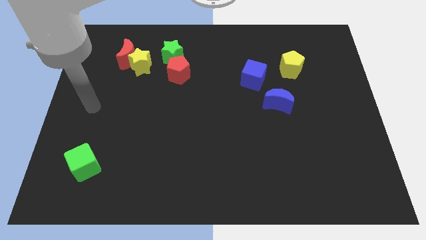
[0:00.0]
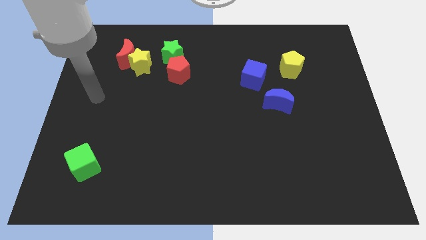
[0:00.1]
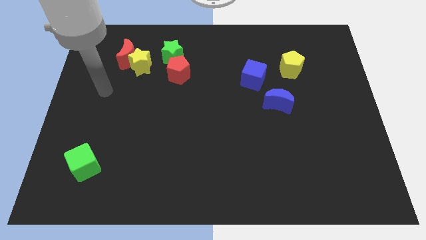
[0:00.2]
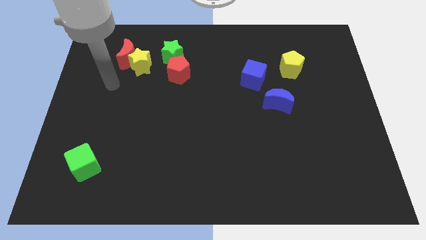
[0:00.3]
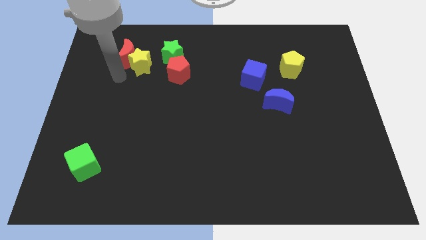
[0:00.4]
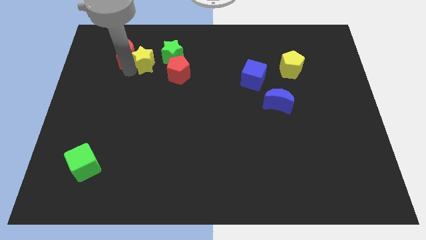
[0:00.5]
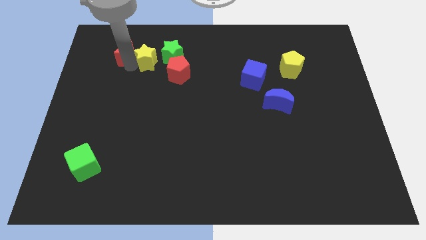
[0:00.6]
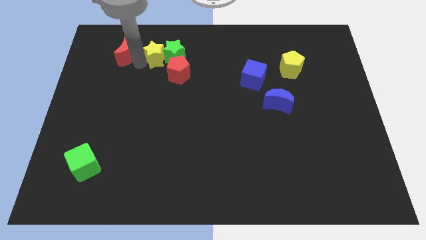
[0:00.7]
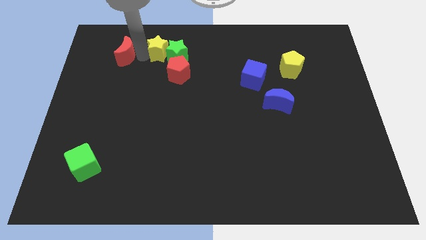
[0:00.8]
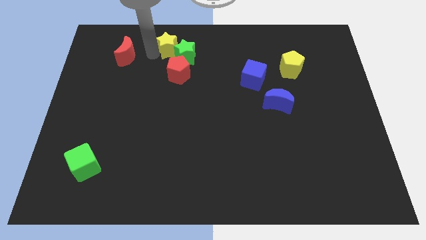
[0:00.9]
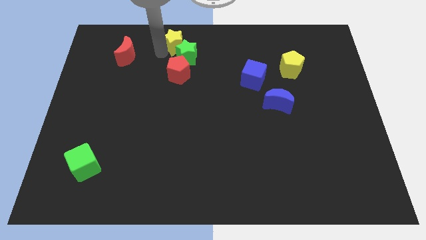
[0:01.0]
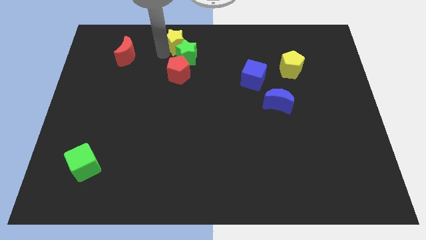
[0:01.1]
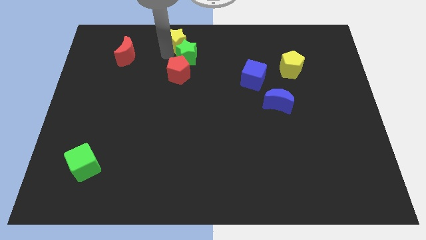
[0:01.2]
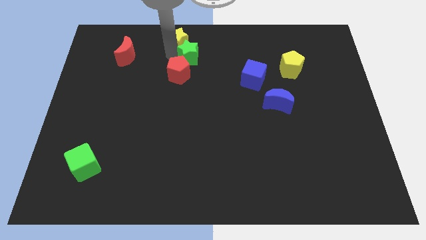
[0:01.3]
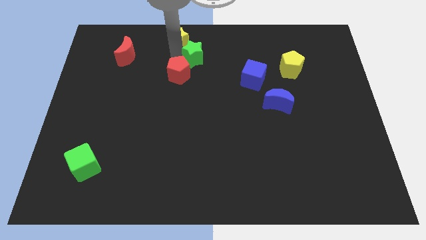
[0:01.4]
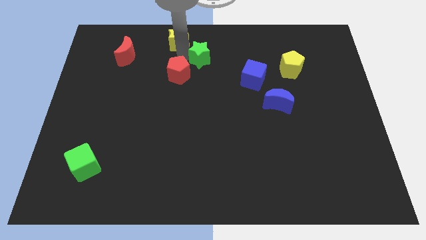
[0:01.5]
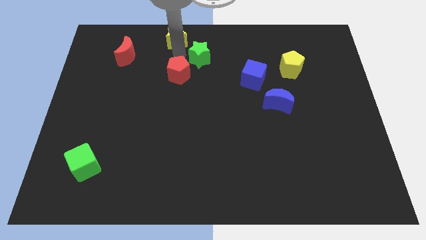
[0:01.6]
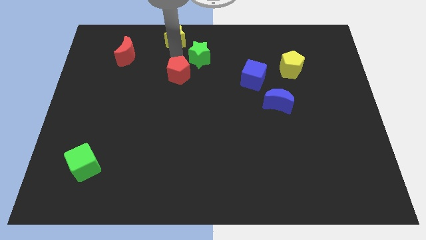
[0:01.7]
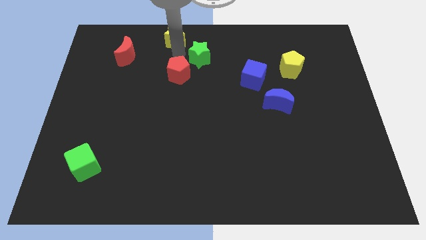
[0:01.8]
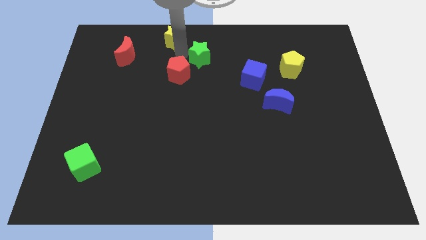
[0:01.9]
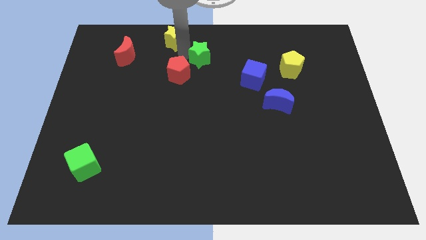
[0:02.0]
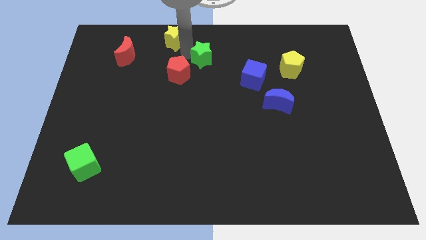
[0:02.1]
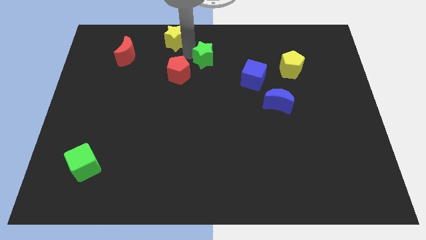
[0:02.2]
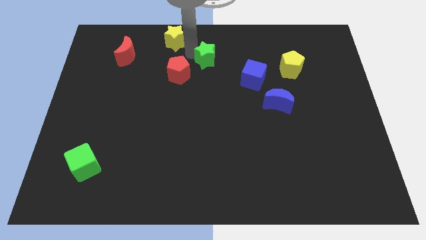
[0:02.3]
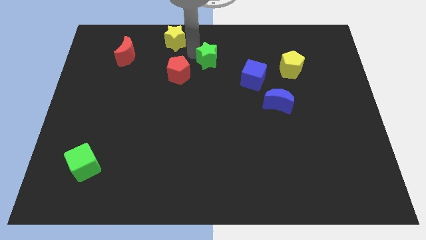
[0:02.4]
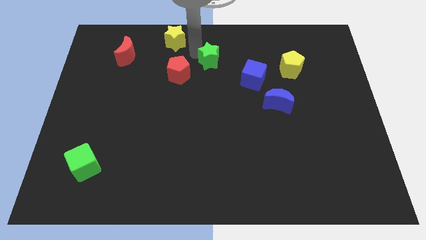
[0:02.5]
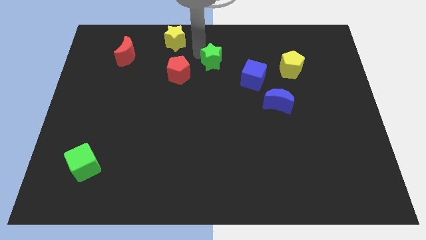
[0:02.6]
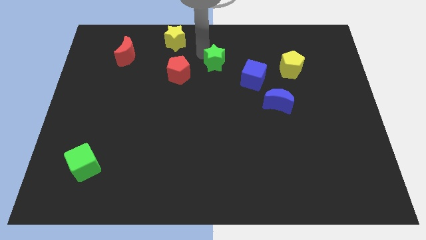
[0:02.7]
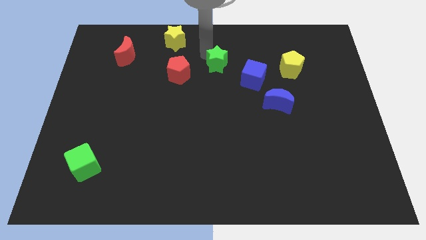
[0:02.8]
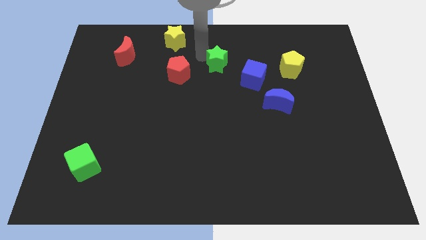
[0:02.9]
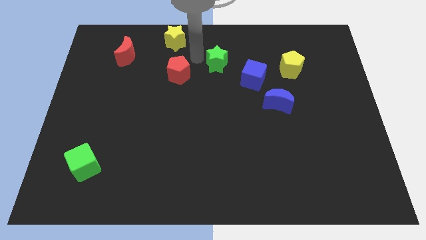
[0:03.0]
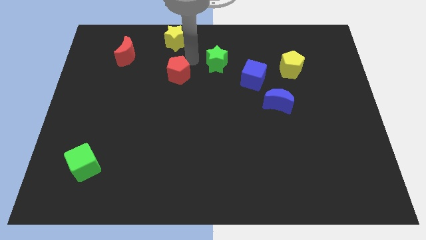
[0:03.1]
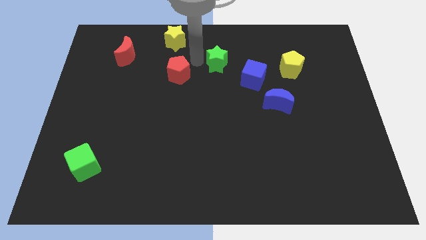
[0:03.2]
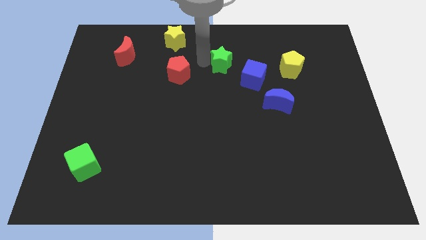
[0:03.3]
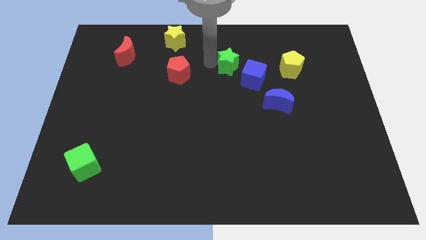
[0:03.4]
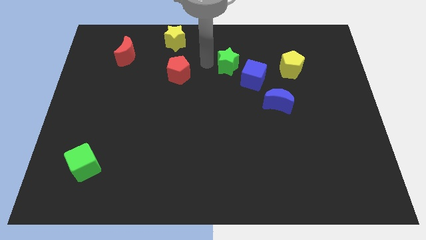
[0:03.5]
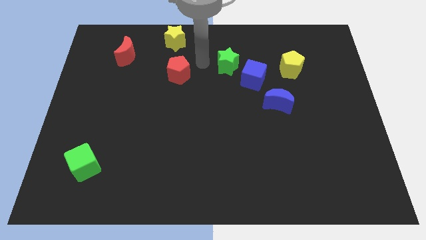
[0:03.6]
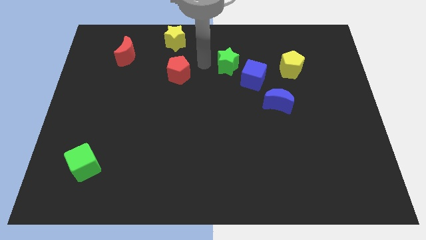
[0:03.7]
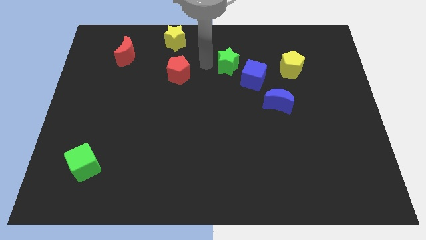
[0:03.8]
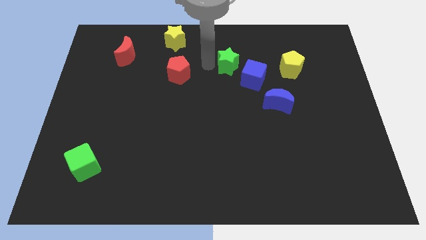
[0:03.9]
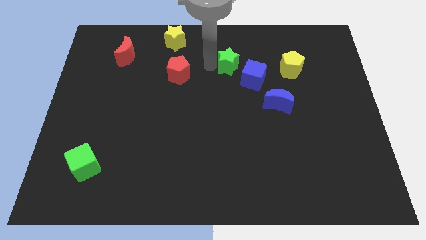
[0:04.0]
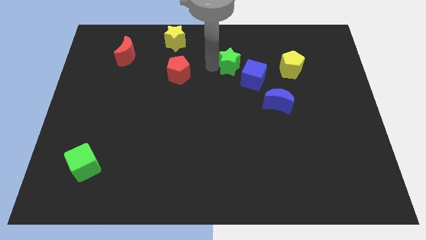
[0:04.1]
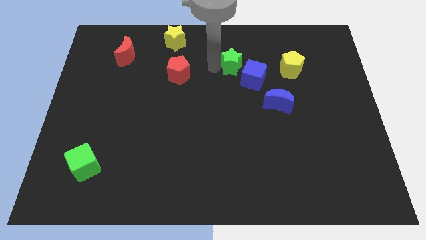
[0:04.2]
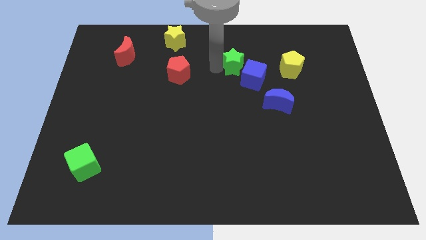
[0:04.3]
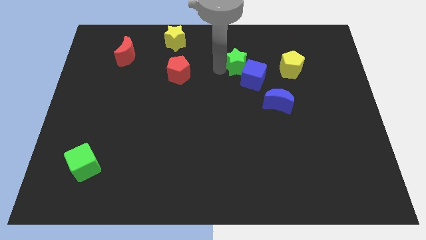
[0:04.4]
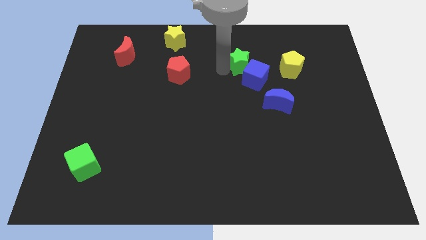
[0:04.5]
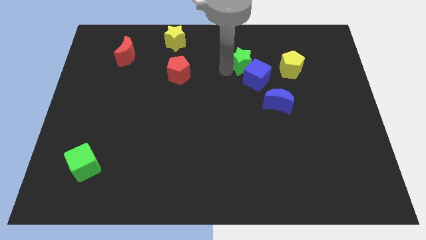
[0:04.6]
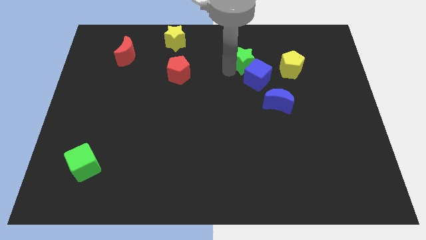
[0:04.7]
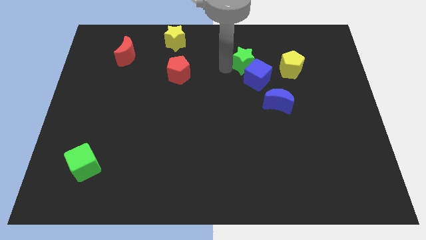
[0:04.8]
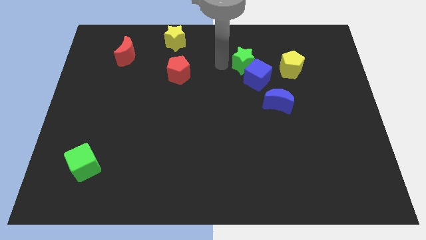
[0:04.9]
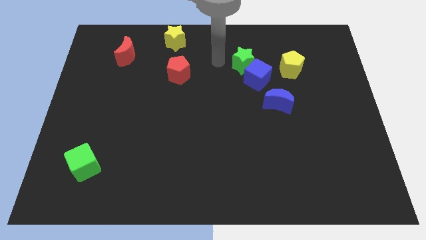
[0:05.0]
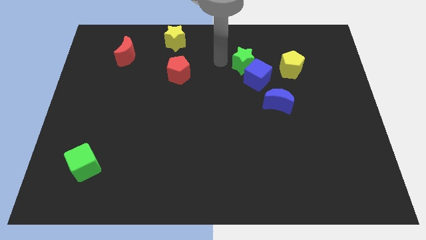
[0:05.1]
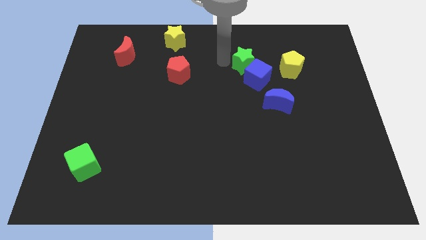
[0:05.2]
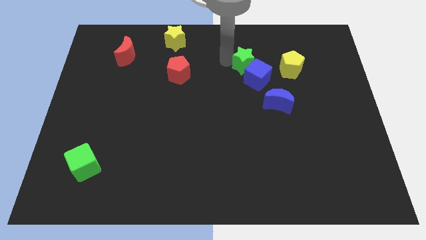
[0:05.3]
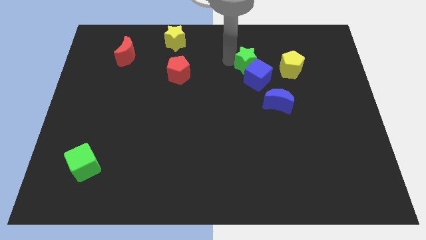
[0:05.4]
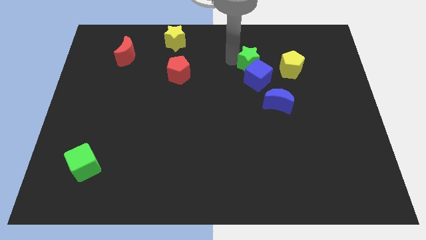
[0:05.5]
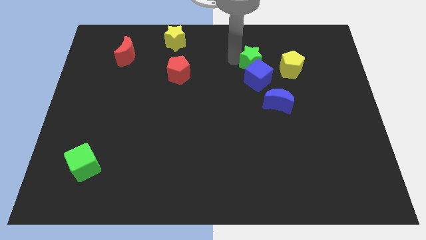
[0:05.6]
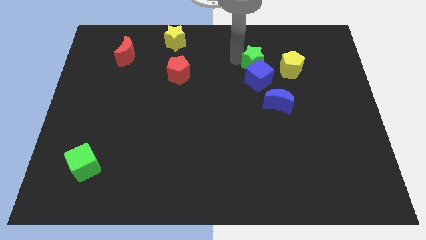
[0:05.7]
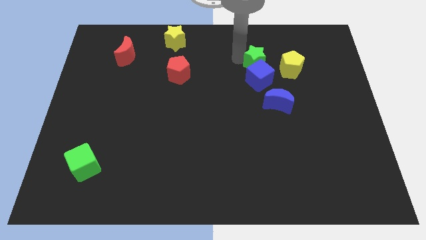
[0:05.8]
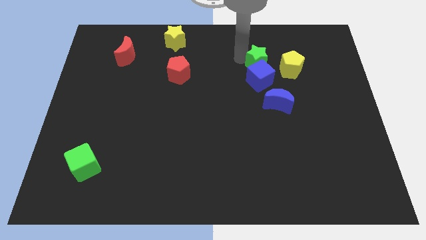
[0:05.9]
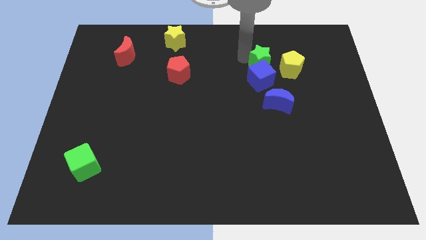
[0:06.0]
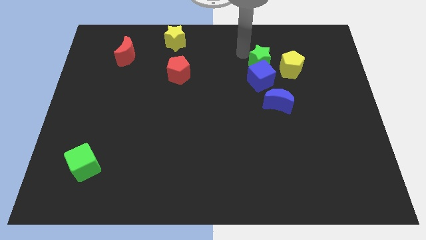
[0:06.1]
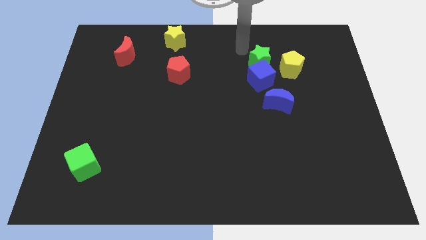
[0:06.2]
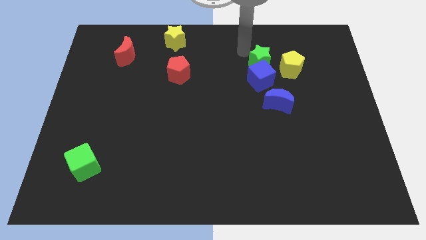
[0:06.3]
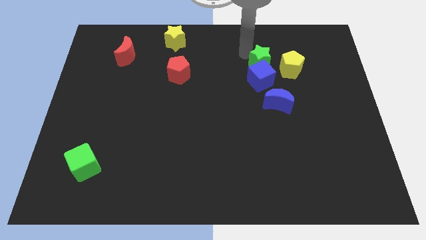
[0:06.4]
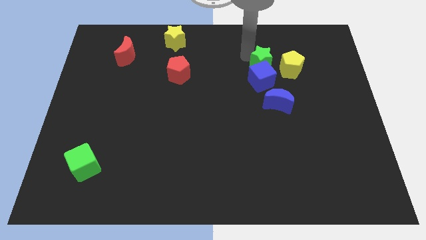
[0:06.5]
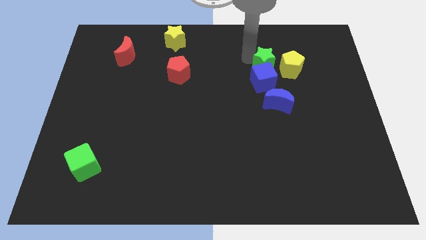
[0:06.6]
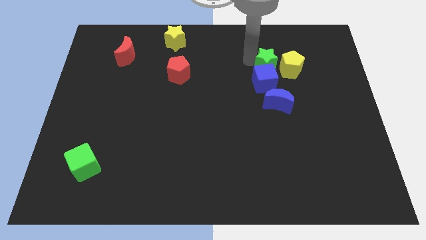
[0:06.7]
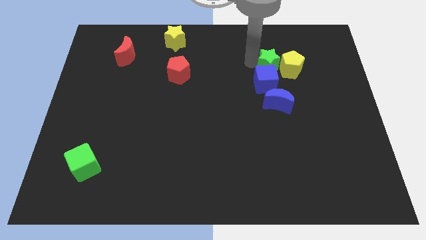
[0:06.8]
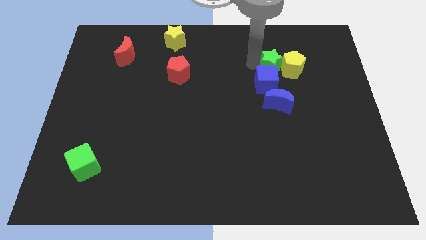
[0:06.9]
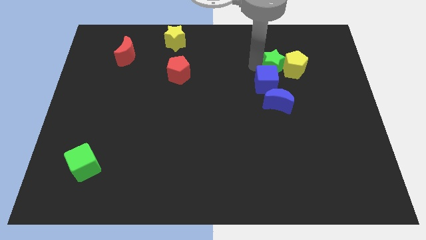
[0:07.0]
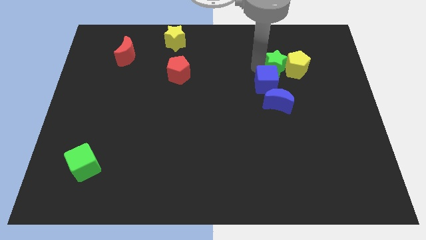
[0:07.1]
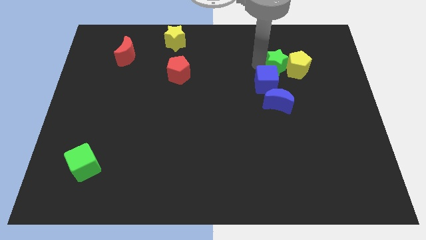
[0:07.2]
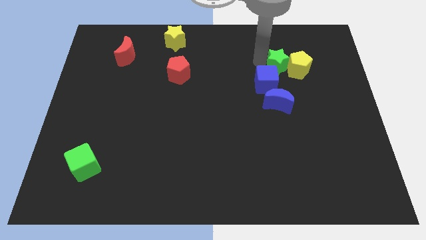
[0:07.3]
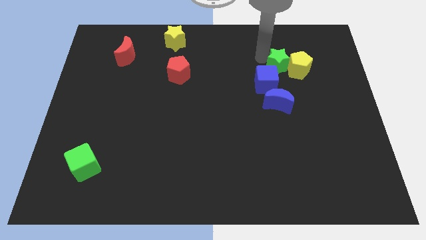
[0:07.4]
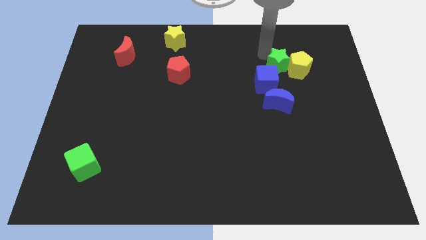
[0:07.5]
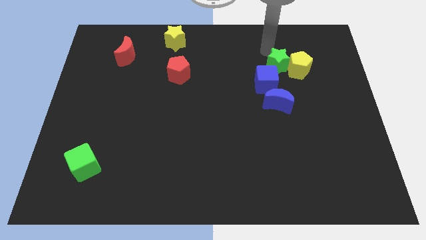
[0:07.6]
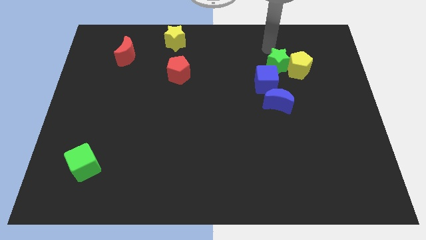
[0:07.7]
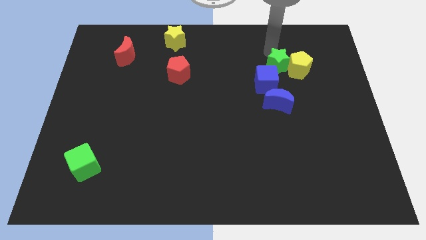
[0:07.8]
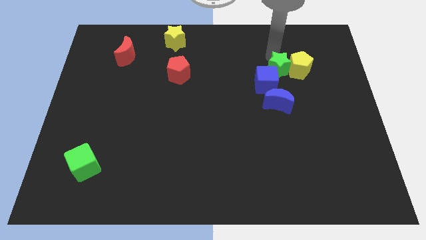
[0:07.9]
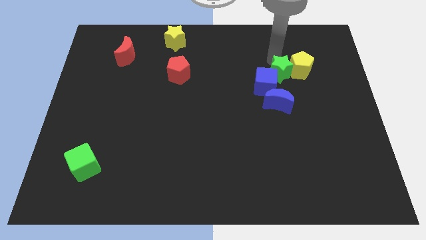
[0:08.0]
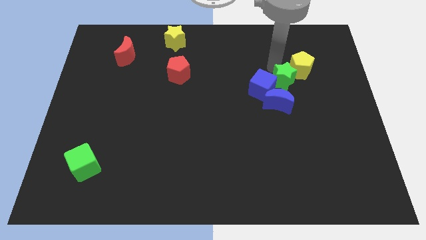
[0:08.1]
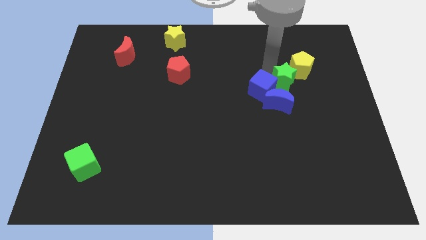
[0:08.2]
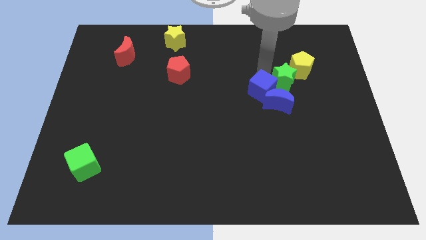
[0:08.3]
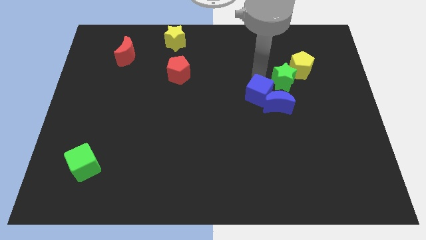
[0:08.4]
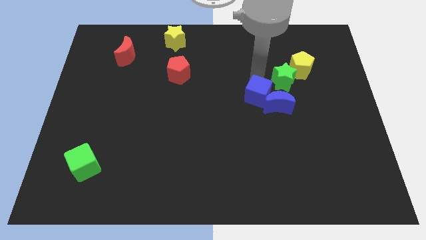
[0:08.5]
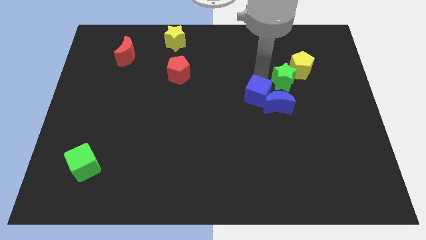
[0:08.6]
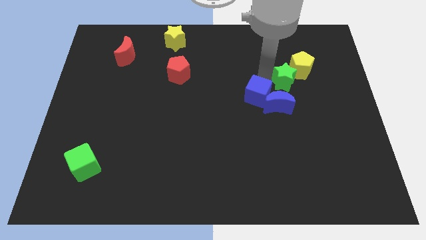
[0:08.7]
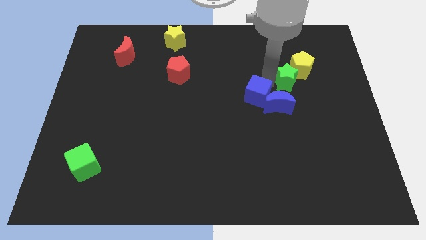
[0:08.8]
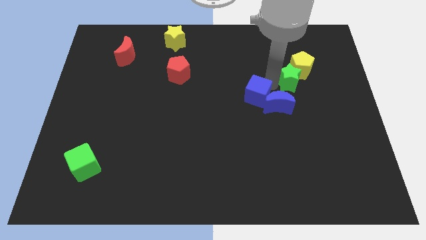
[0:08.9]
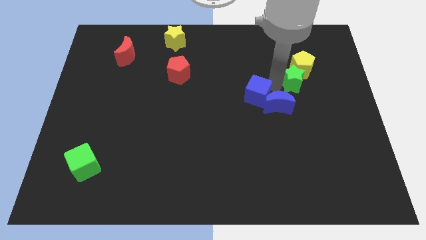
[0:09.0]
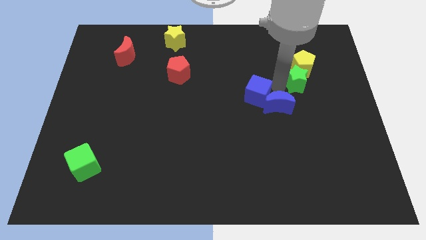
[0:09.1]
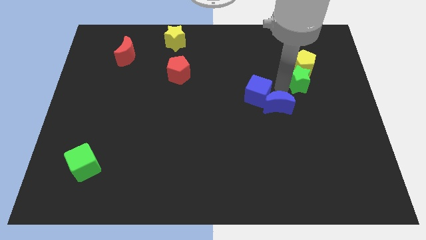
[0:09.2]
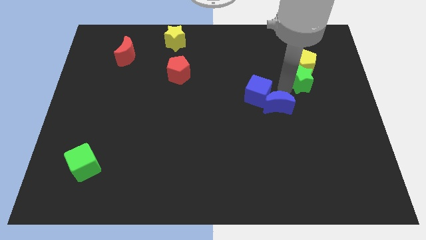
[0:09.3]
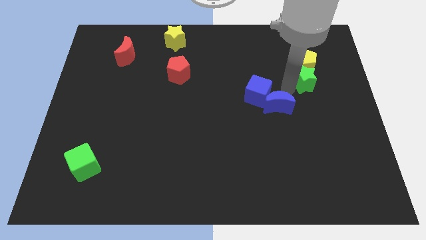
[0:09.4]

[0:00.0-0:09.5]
put the green star diagonally down and to the right of the yellow pentagon
